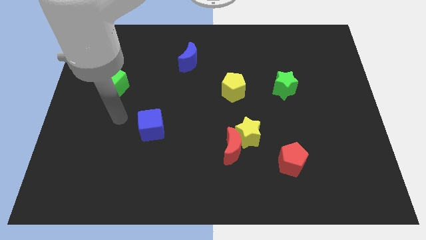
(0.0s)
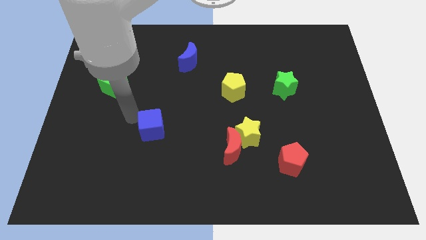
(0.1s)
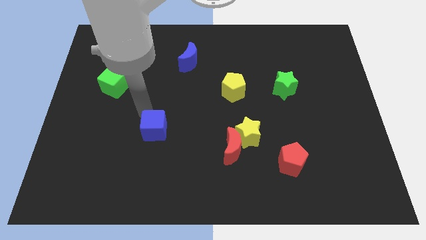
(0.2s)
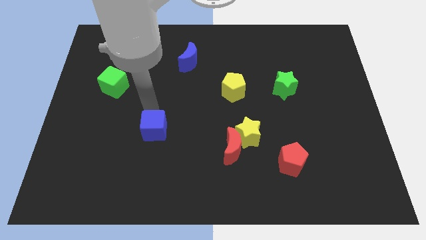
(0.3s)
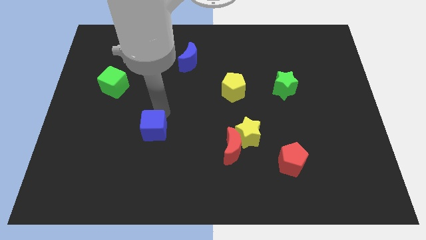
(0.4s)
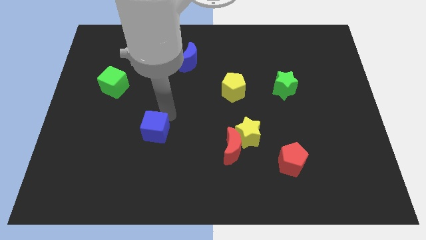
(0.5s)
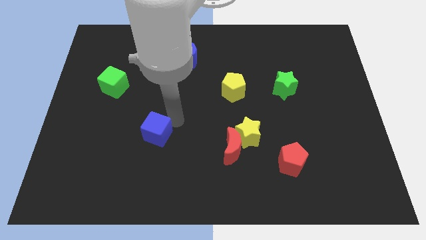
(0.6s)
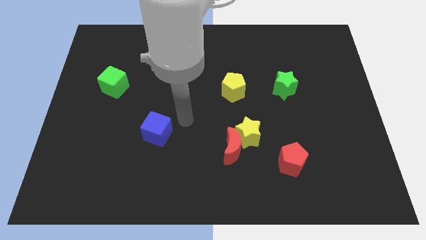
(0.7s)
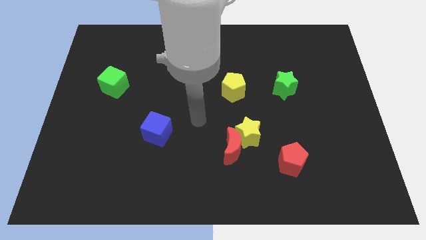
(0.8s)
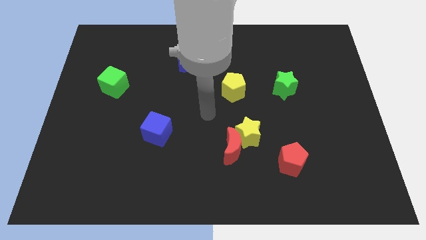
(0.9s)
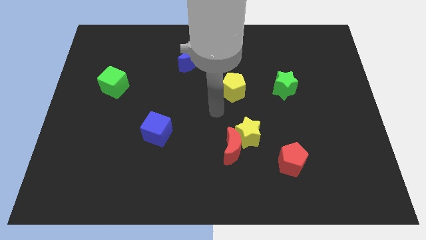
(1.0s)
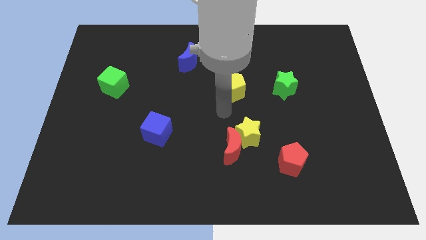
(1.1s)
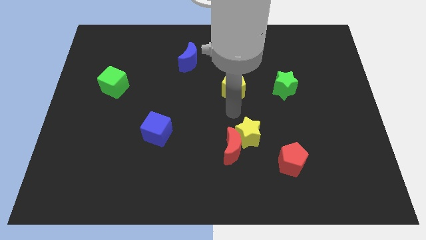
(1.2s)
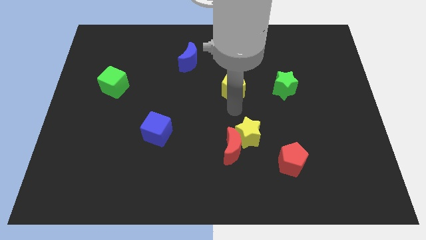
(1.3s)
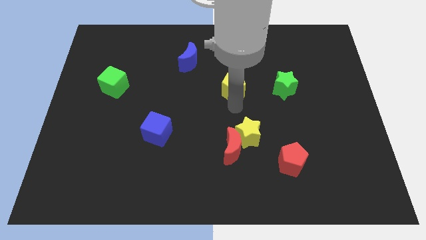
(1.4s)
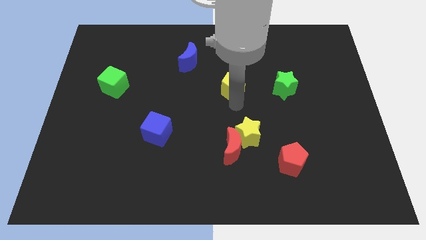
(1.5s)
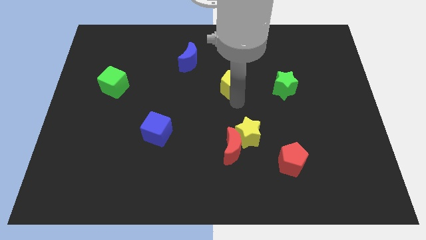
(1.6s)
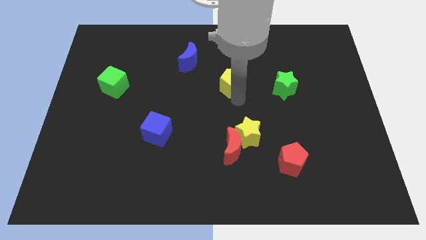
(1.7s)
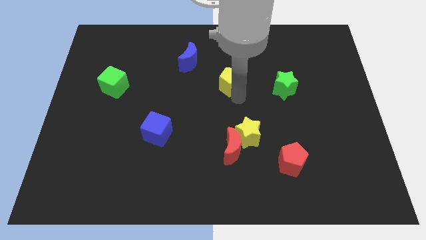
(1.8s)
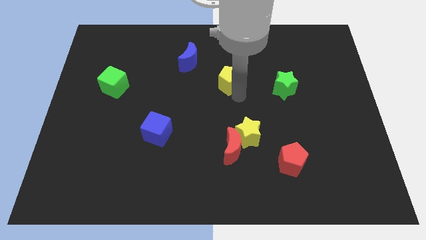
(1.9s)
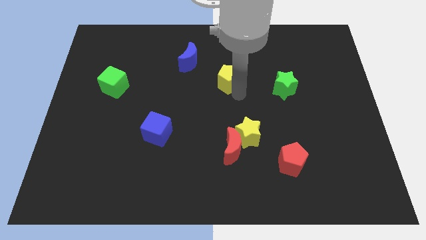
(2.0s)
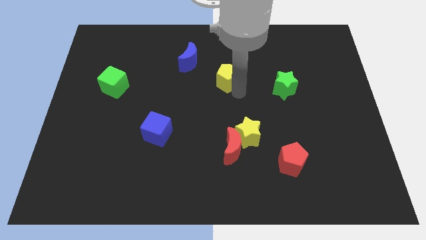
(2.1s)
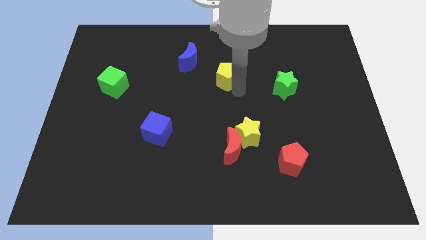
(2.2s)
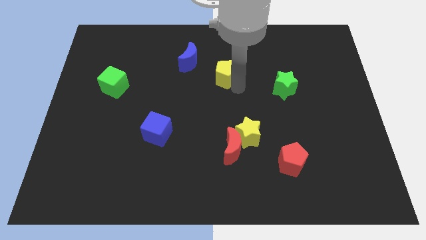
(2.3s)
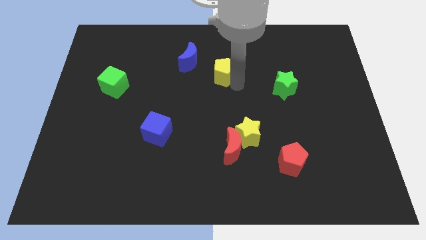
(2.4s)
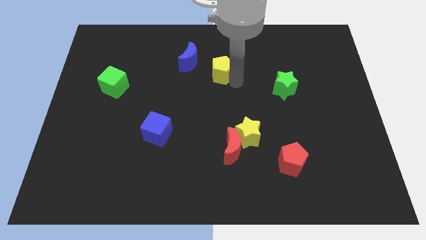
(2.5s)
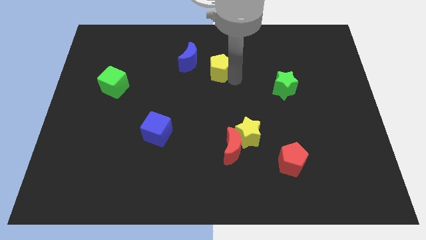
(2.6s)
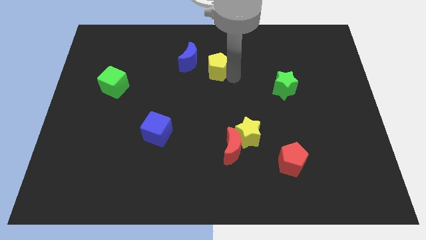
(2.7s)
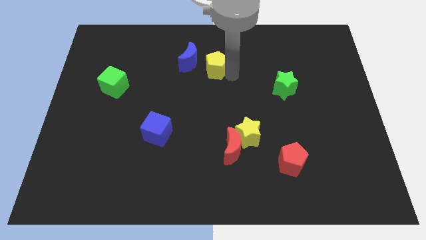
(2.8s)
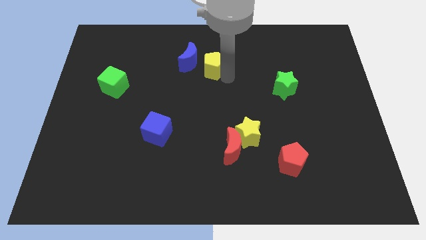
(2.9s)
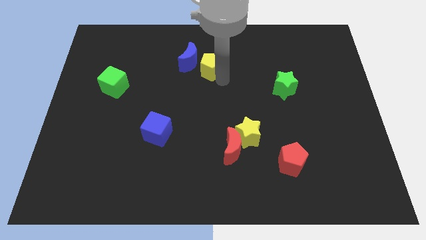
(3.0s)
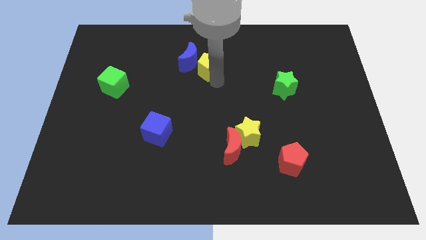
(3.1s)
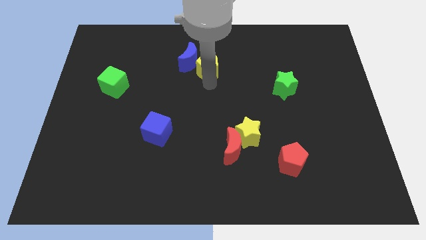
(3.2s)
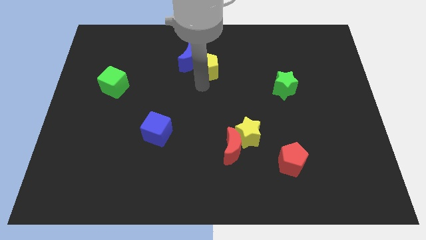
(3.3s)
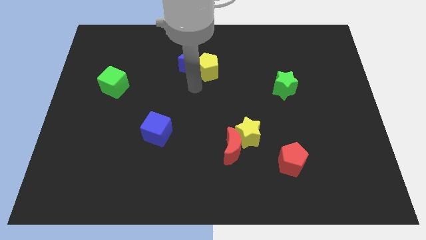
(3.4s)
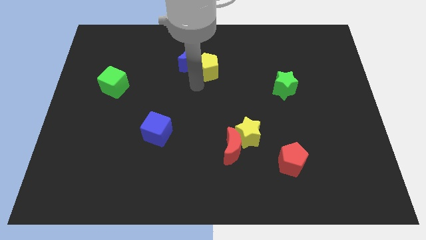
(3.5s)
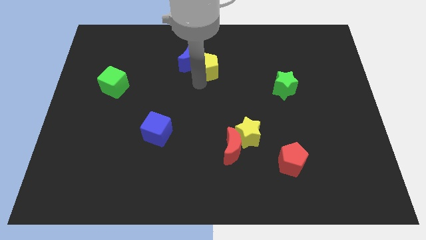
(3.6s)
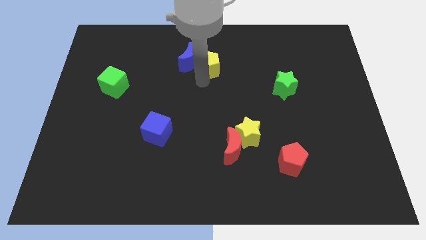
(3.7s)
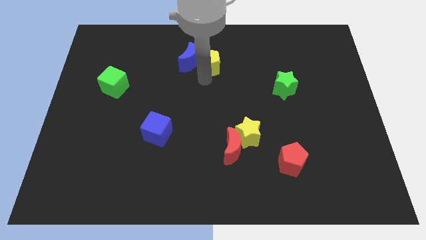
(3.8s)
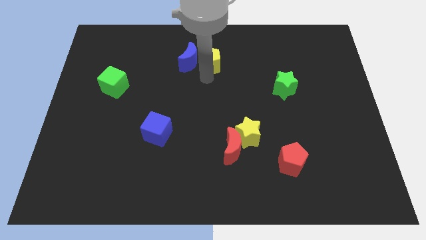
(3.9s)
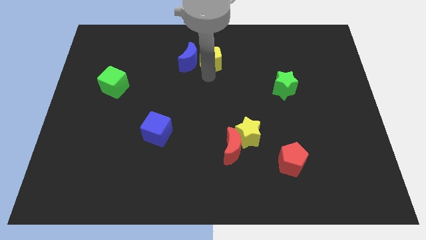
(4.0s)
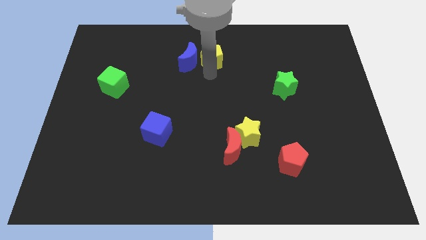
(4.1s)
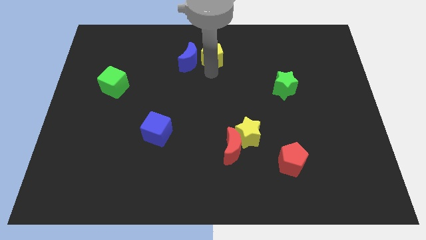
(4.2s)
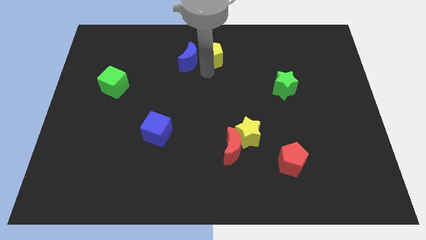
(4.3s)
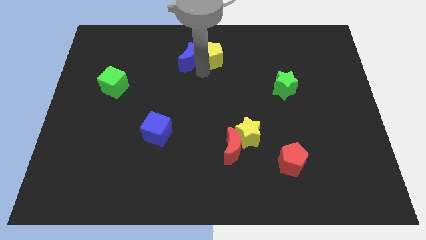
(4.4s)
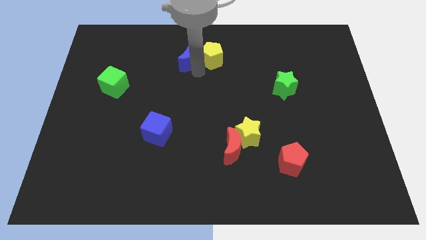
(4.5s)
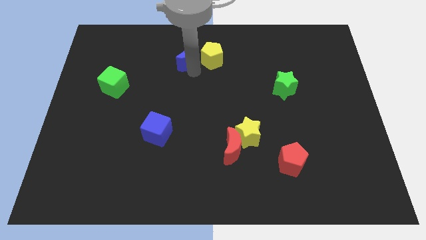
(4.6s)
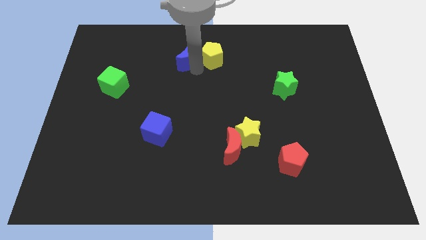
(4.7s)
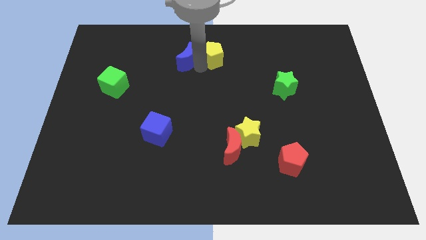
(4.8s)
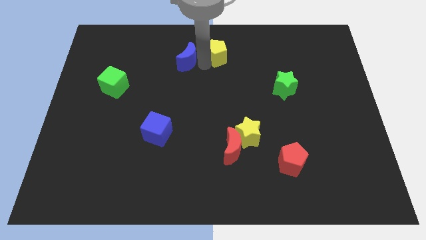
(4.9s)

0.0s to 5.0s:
push the yellow pentagon to the top side

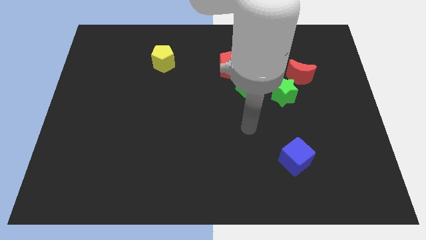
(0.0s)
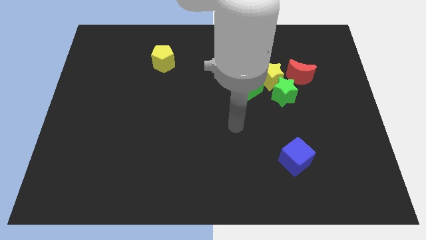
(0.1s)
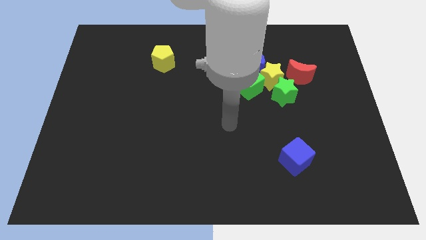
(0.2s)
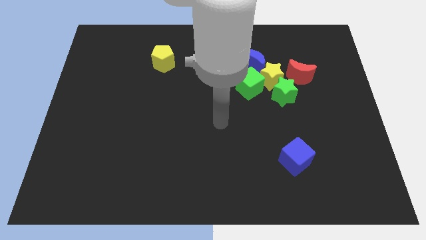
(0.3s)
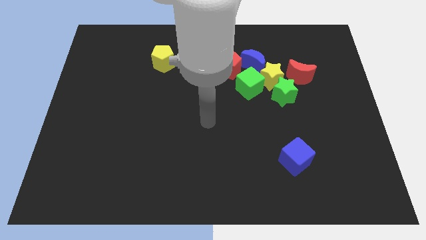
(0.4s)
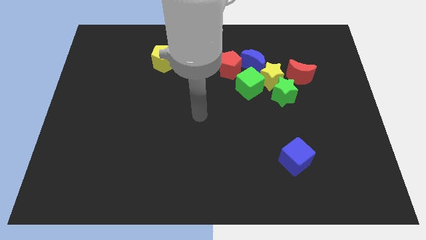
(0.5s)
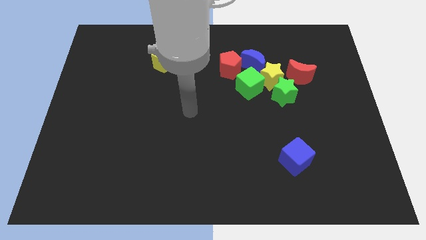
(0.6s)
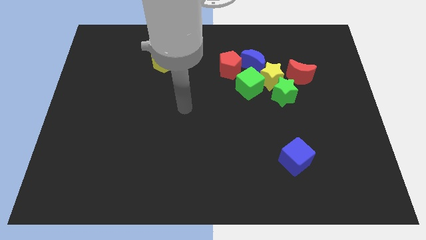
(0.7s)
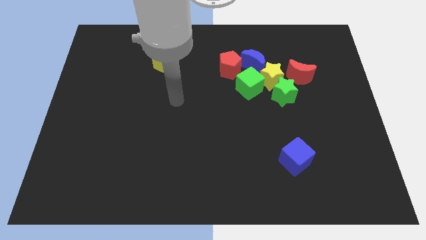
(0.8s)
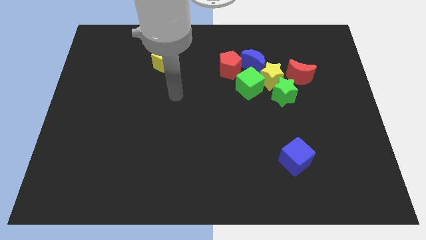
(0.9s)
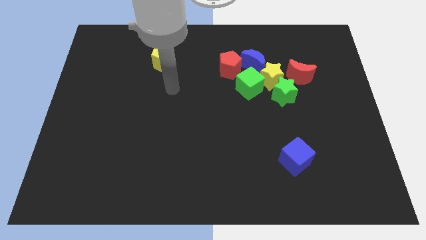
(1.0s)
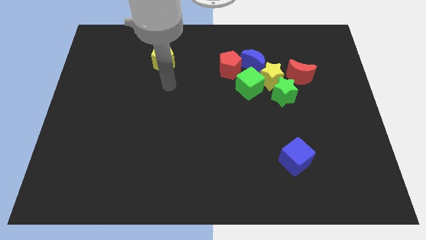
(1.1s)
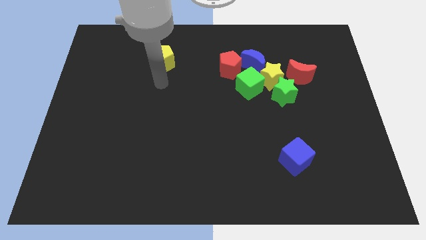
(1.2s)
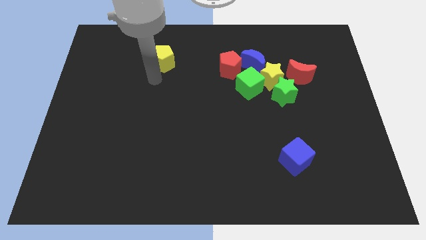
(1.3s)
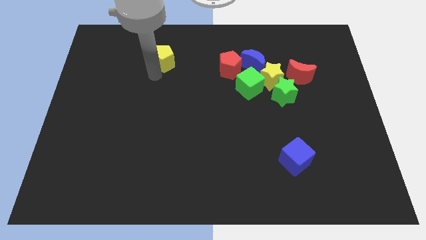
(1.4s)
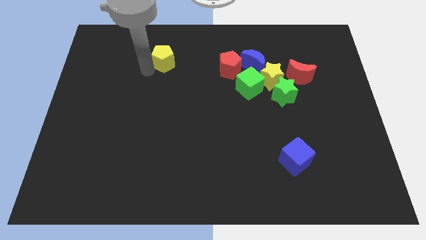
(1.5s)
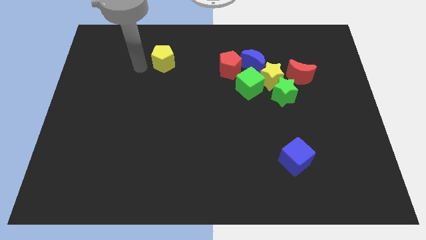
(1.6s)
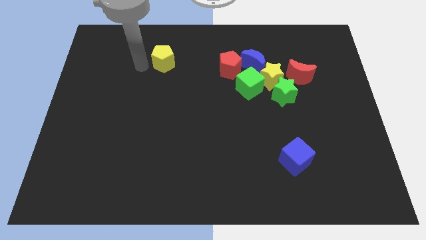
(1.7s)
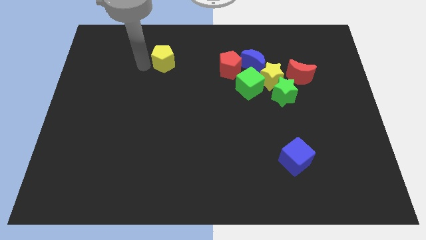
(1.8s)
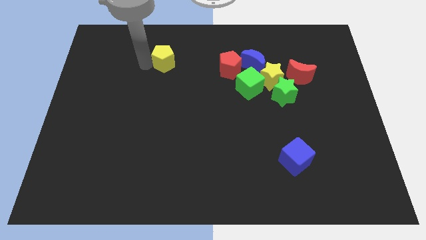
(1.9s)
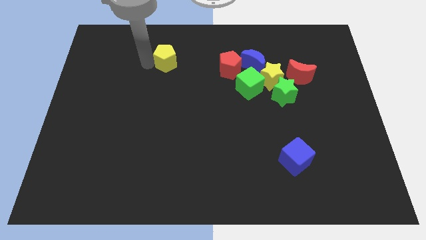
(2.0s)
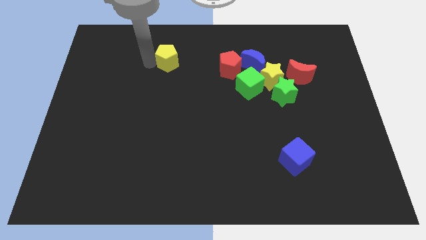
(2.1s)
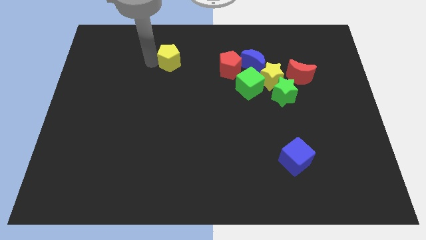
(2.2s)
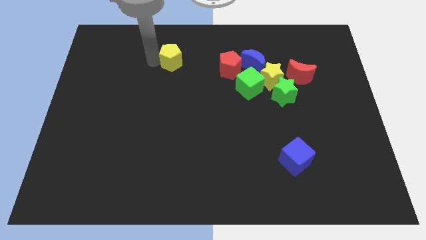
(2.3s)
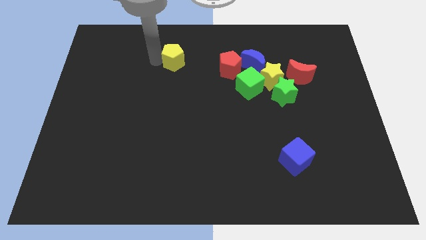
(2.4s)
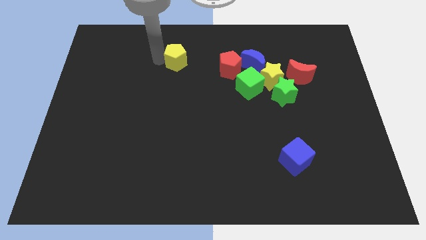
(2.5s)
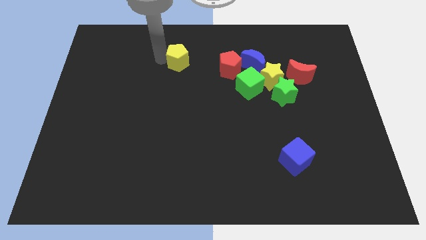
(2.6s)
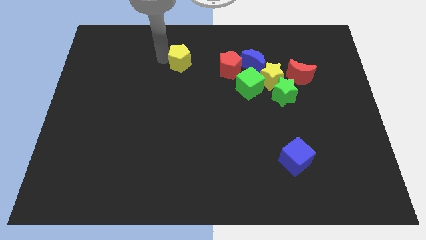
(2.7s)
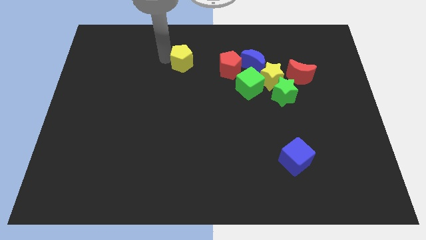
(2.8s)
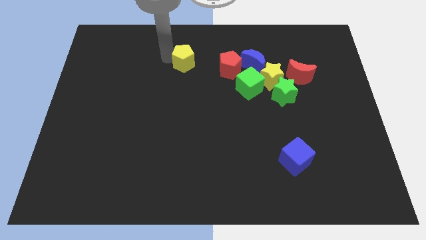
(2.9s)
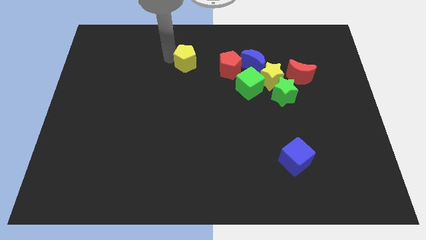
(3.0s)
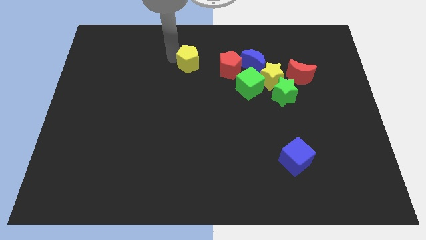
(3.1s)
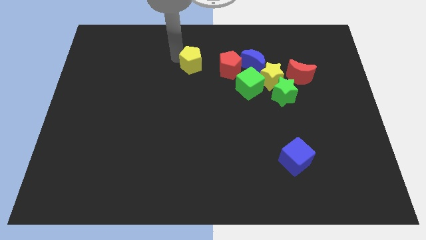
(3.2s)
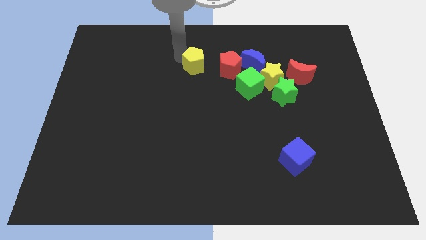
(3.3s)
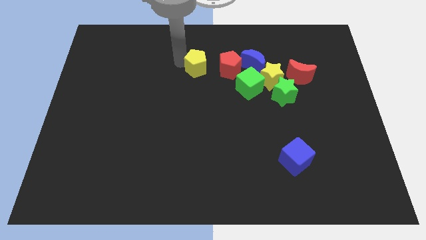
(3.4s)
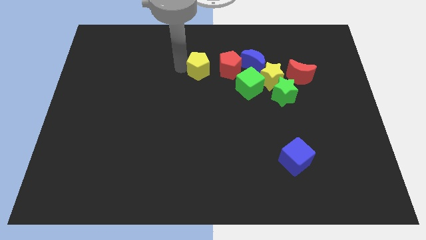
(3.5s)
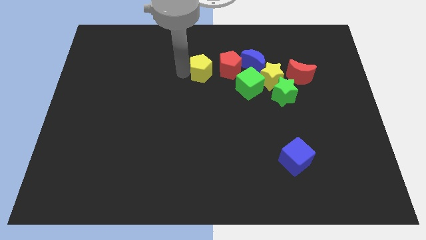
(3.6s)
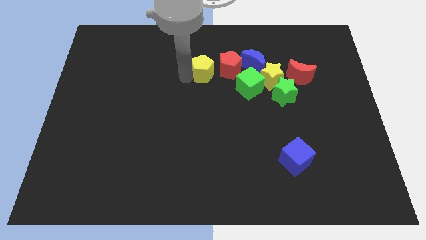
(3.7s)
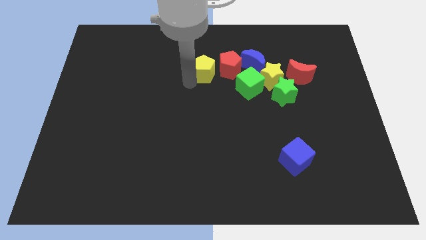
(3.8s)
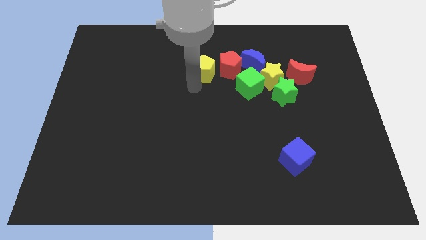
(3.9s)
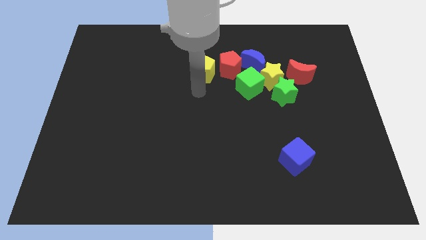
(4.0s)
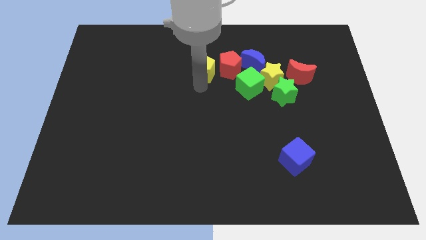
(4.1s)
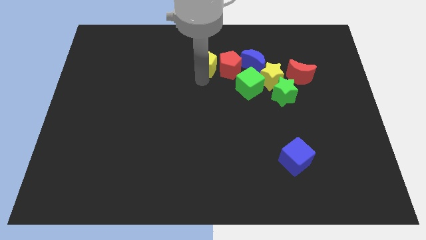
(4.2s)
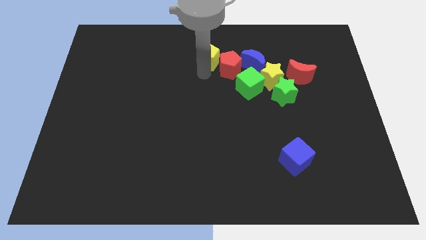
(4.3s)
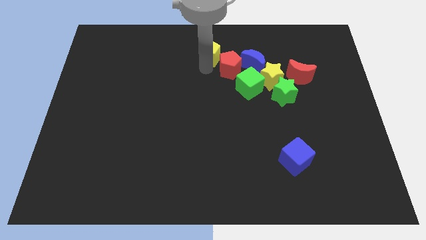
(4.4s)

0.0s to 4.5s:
put the yellow pentagon to the towards your base
